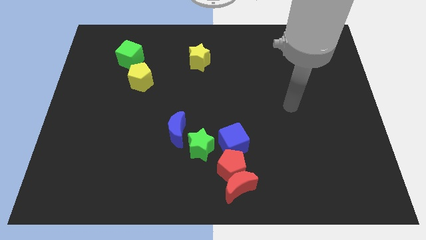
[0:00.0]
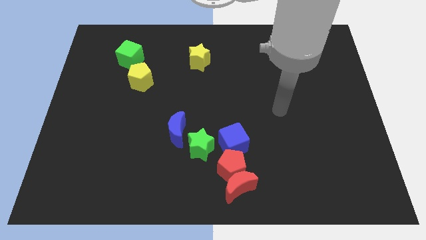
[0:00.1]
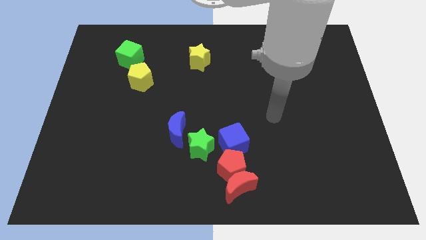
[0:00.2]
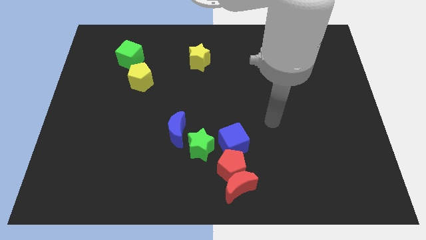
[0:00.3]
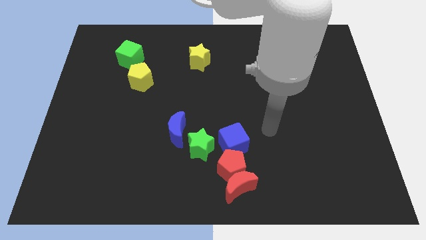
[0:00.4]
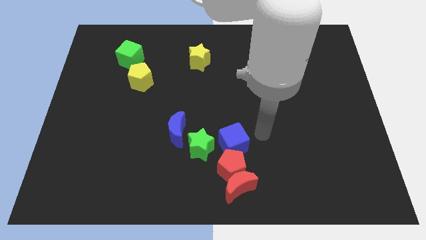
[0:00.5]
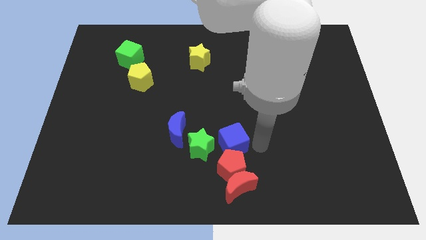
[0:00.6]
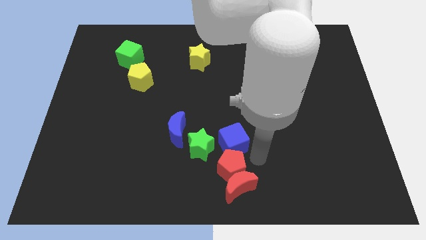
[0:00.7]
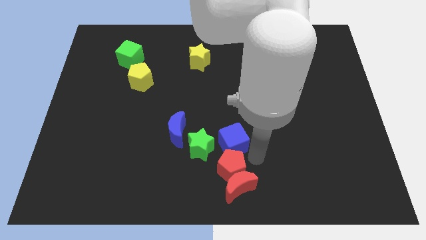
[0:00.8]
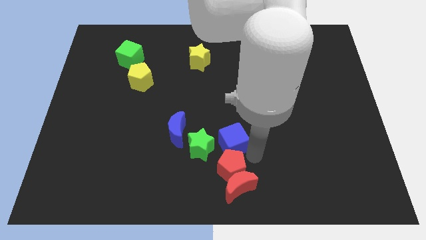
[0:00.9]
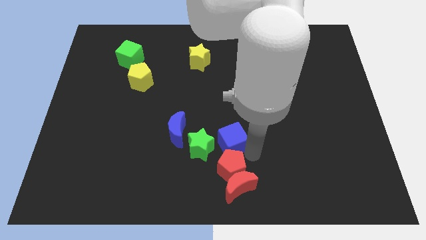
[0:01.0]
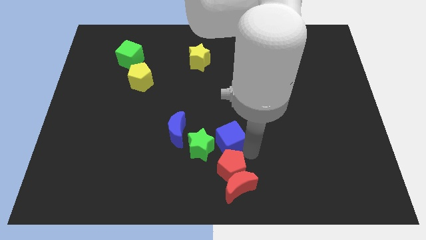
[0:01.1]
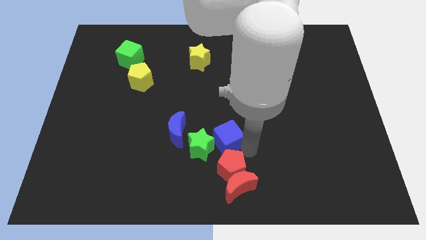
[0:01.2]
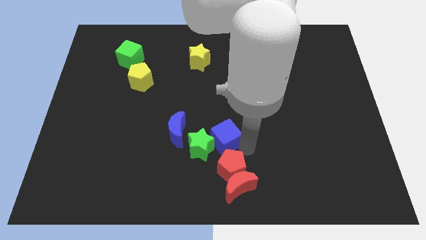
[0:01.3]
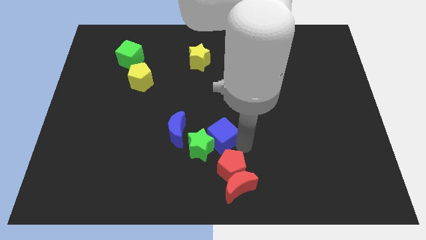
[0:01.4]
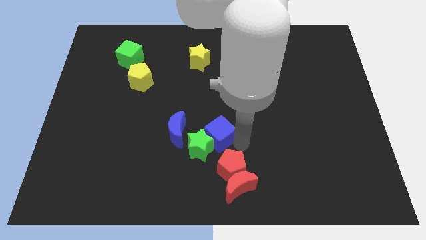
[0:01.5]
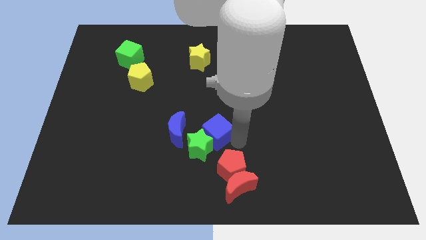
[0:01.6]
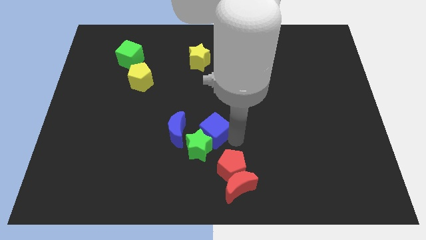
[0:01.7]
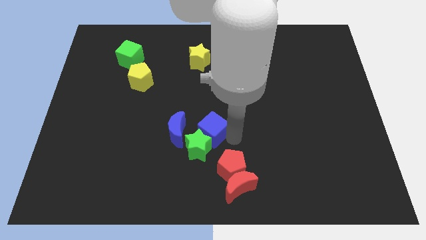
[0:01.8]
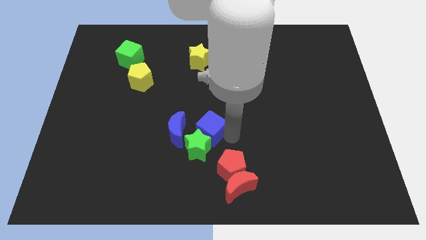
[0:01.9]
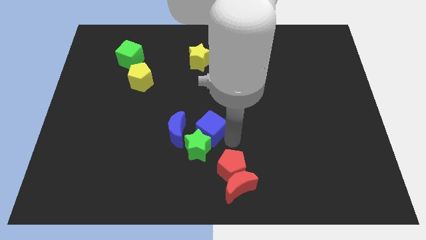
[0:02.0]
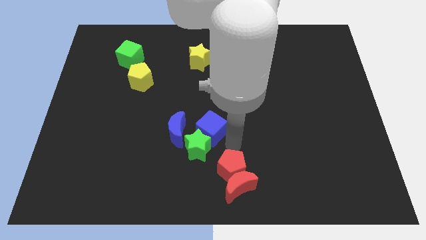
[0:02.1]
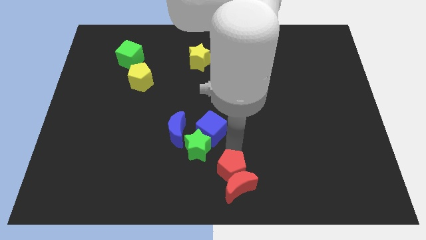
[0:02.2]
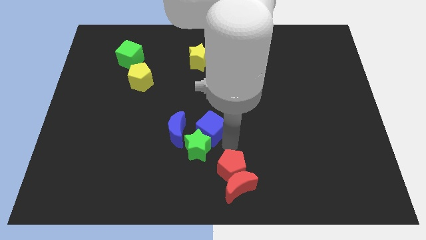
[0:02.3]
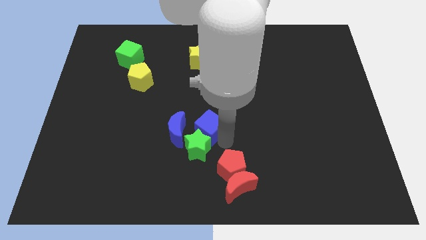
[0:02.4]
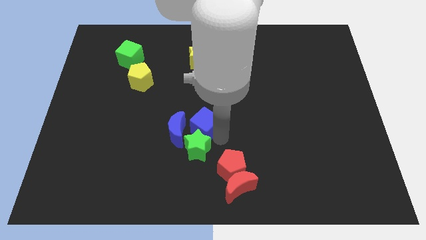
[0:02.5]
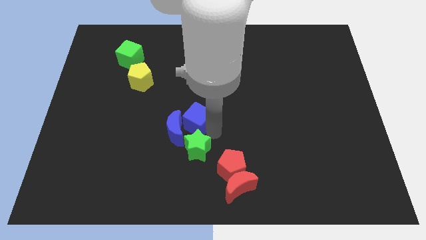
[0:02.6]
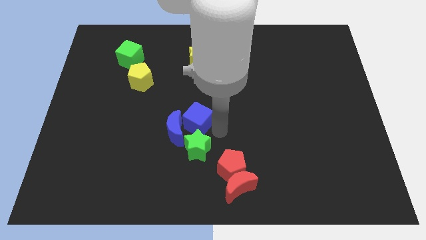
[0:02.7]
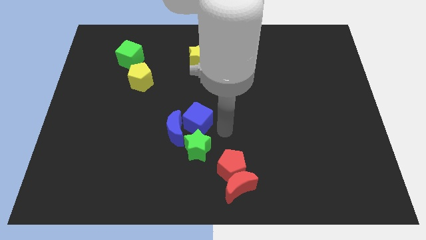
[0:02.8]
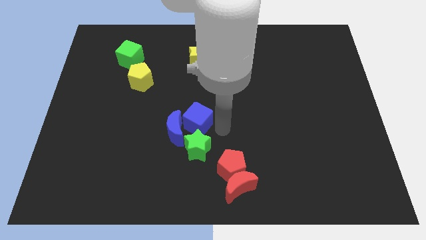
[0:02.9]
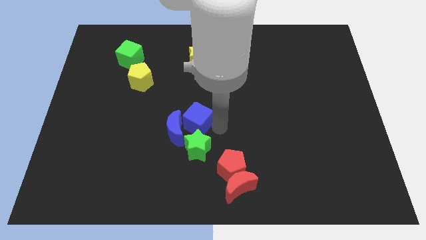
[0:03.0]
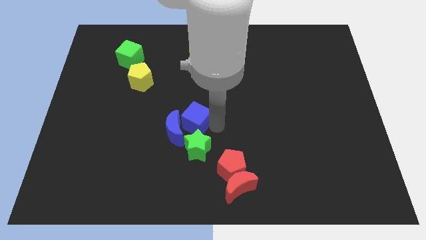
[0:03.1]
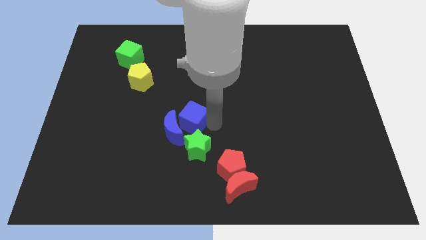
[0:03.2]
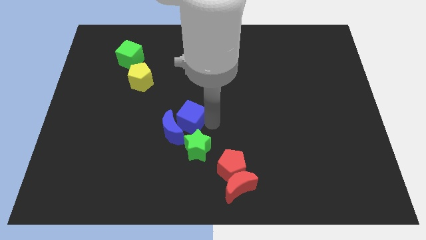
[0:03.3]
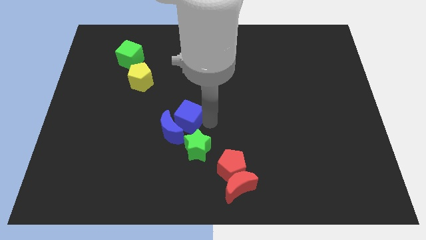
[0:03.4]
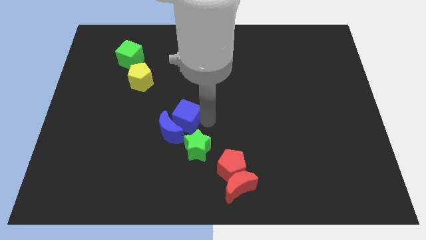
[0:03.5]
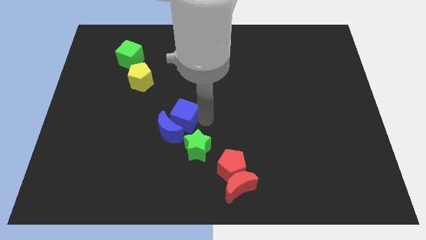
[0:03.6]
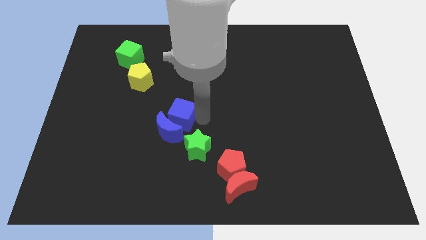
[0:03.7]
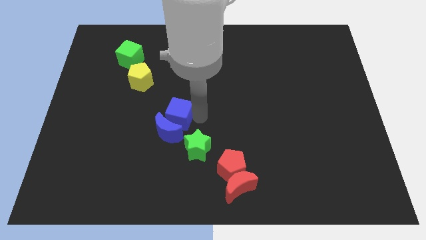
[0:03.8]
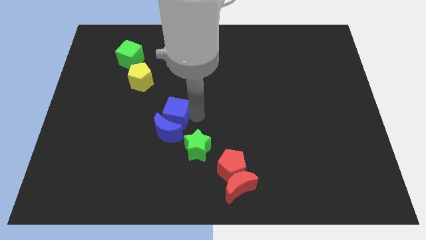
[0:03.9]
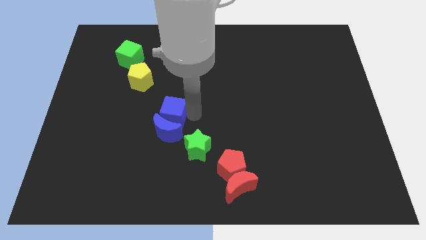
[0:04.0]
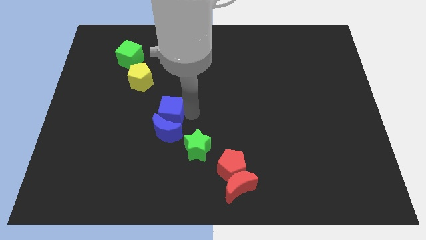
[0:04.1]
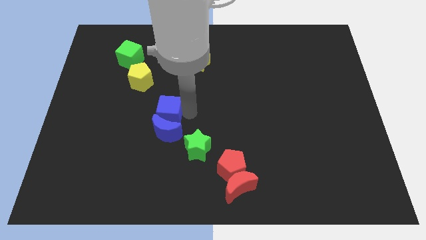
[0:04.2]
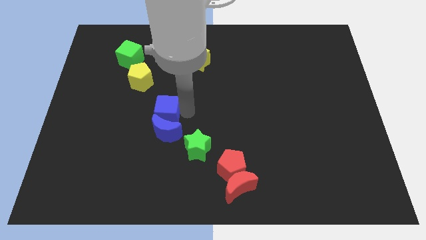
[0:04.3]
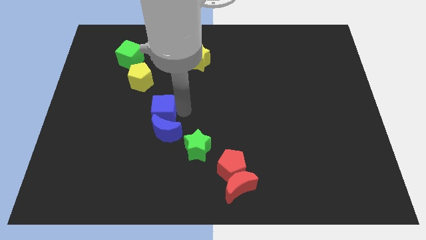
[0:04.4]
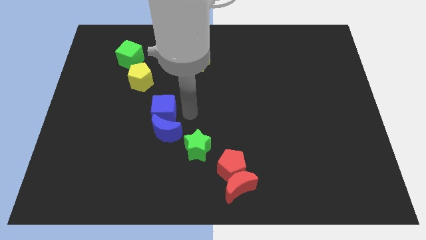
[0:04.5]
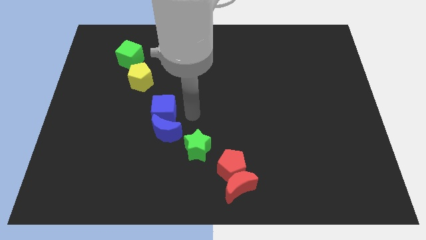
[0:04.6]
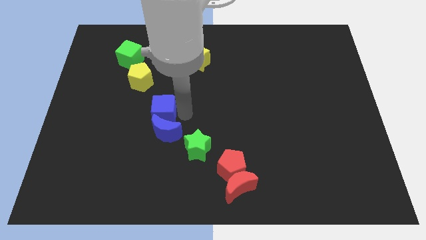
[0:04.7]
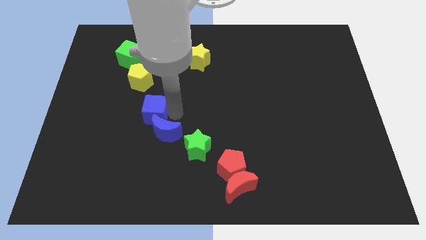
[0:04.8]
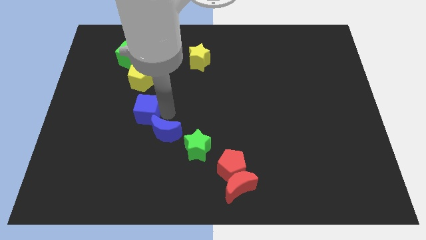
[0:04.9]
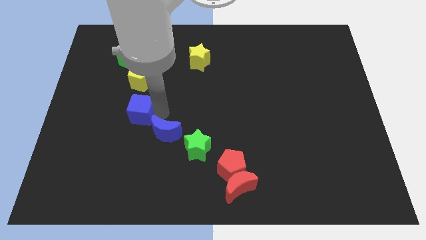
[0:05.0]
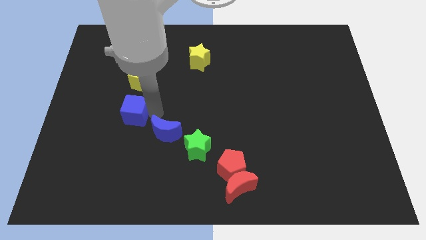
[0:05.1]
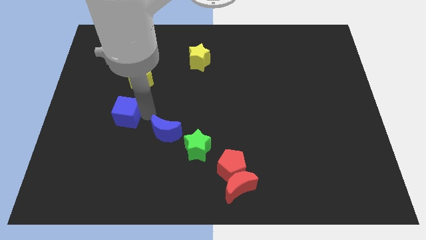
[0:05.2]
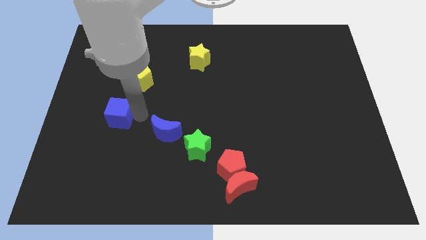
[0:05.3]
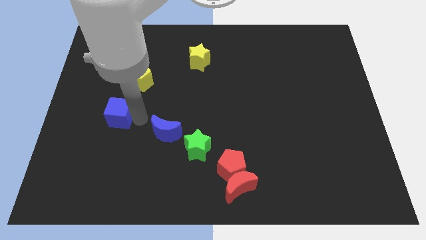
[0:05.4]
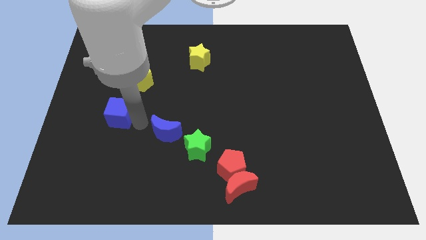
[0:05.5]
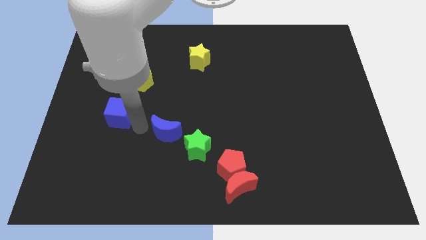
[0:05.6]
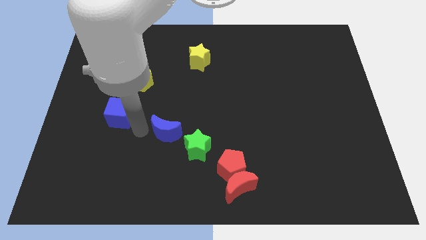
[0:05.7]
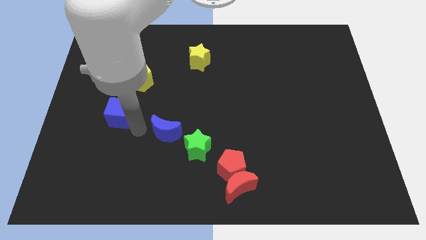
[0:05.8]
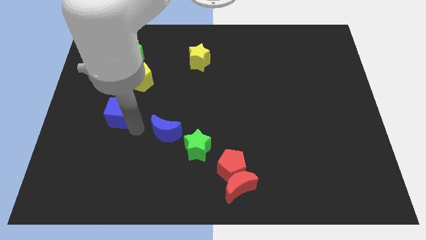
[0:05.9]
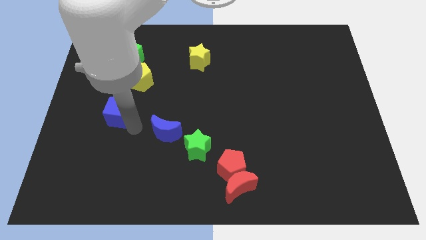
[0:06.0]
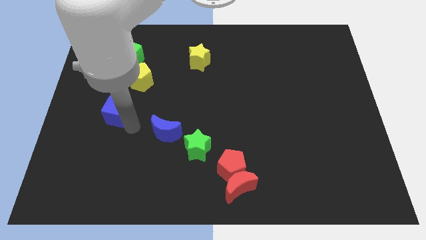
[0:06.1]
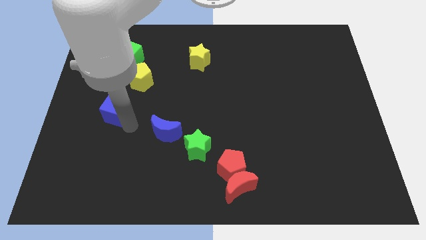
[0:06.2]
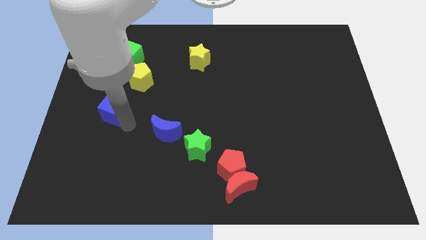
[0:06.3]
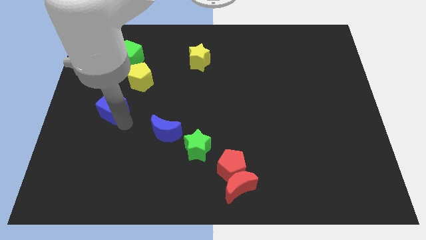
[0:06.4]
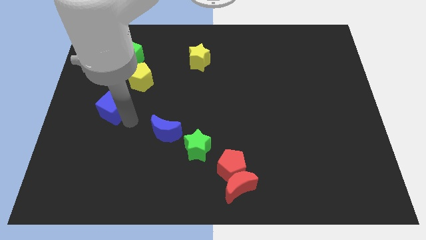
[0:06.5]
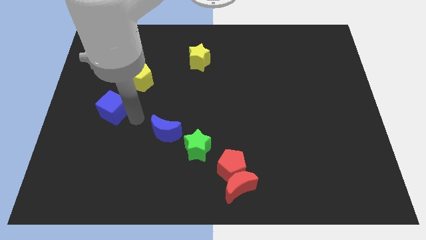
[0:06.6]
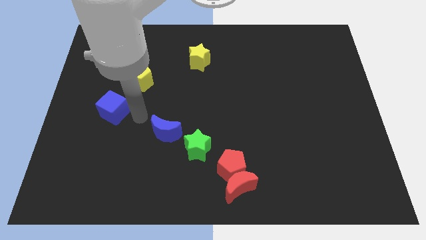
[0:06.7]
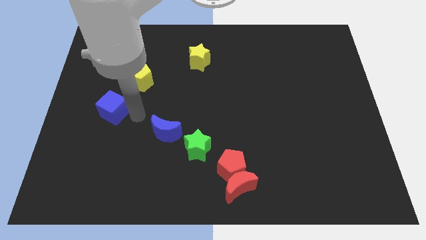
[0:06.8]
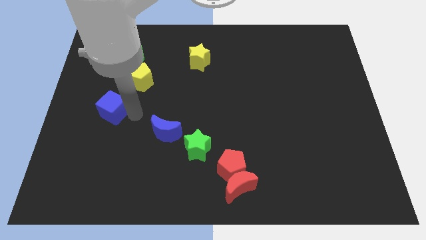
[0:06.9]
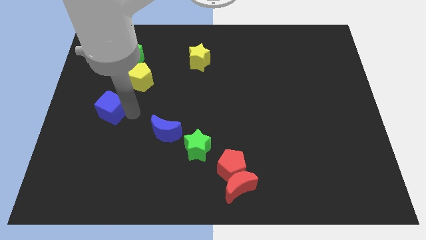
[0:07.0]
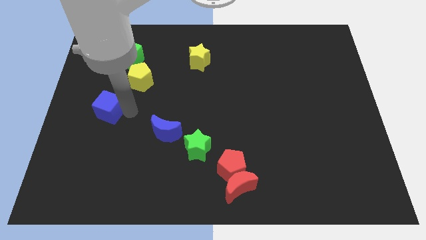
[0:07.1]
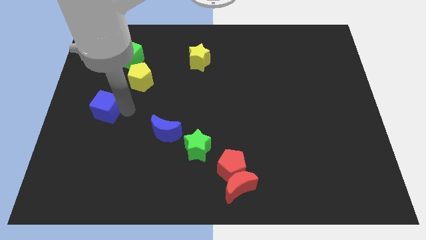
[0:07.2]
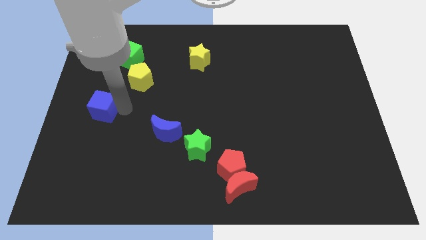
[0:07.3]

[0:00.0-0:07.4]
slide the blue cube to the center left
